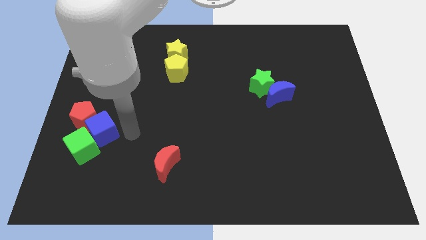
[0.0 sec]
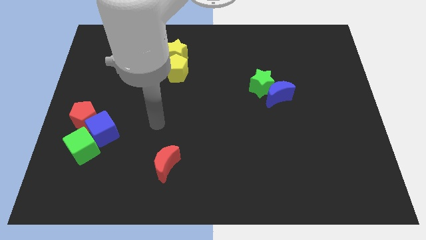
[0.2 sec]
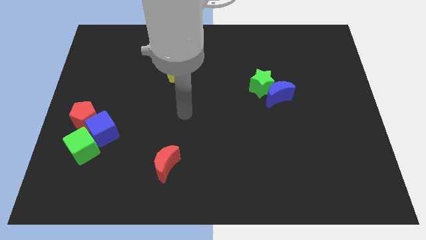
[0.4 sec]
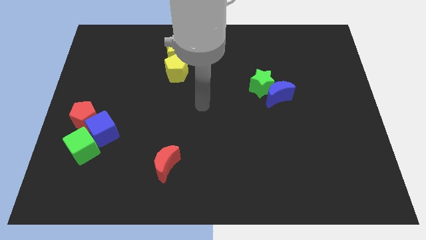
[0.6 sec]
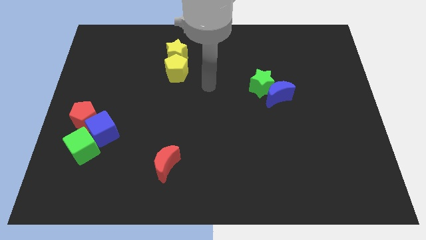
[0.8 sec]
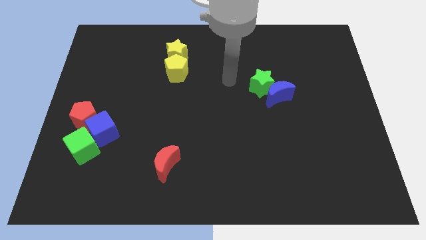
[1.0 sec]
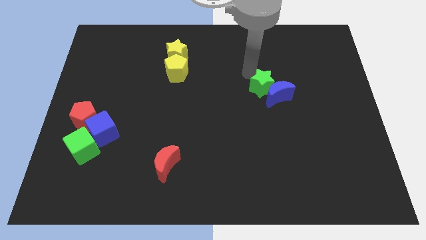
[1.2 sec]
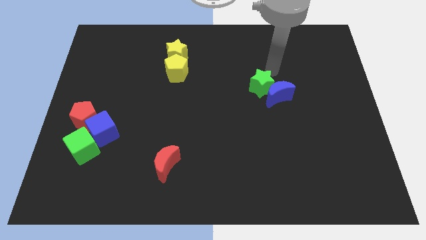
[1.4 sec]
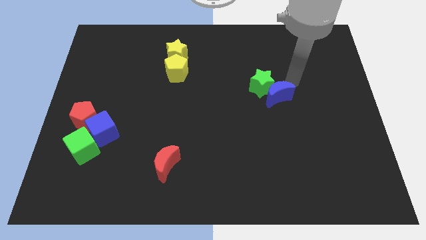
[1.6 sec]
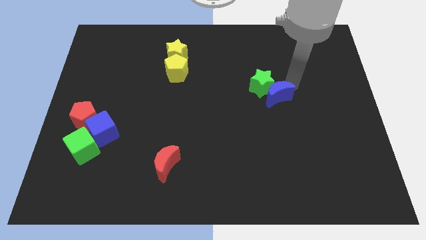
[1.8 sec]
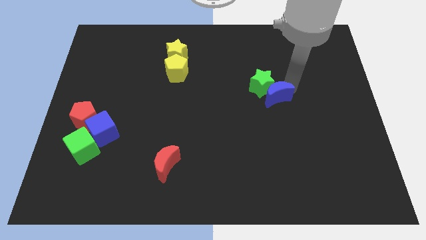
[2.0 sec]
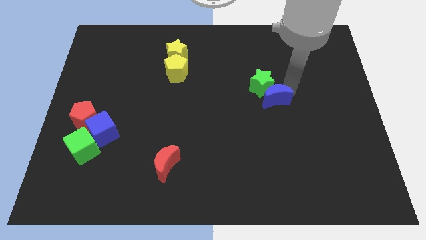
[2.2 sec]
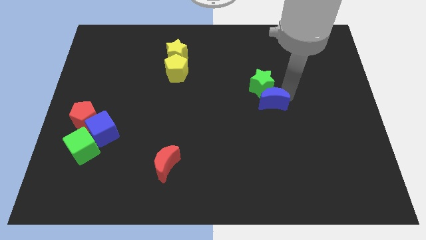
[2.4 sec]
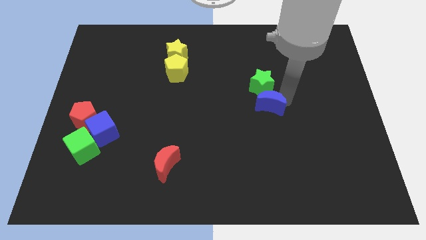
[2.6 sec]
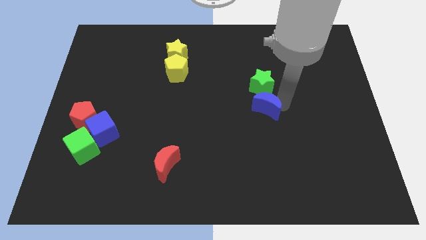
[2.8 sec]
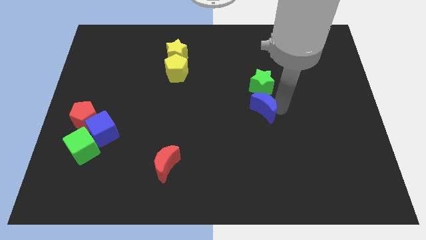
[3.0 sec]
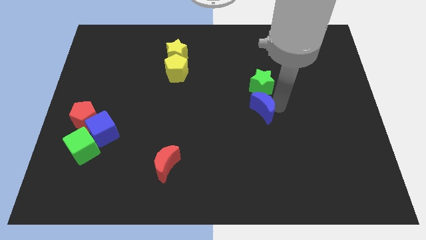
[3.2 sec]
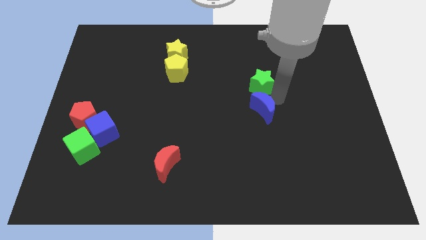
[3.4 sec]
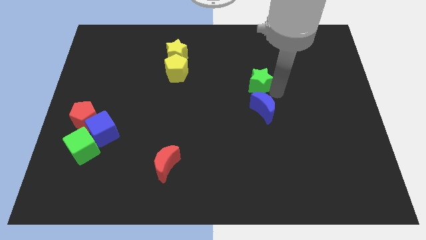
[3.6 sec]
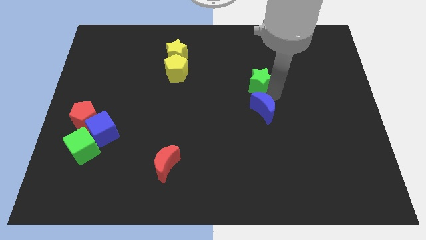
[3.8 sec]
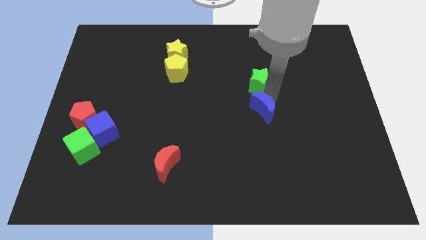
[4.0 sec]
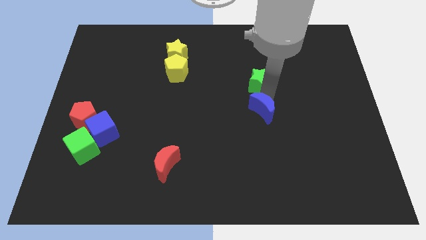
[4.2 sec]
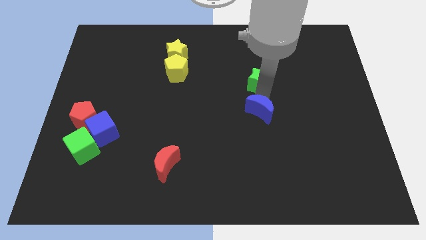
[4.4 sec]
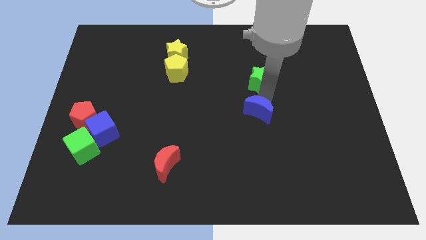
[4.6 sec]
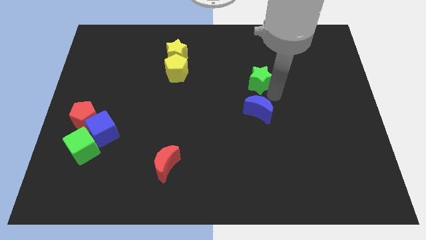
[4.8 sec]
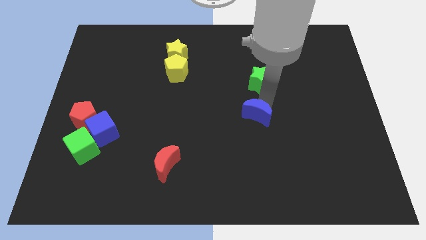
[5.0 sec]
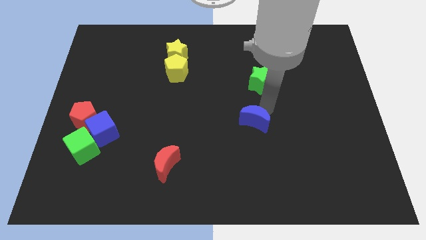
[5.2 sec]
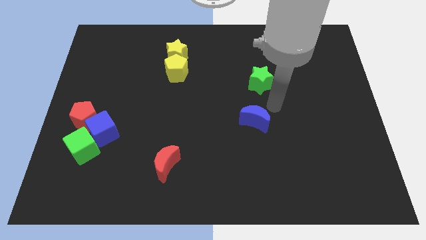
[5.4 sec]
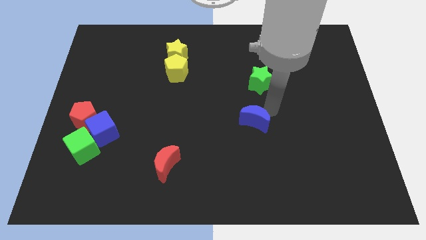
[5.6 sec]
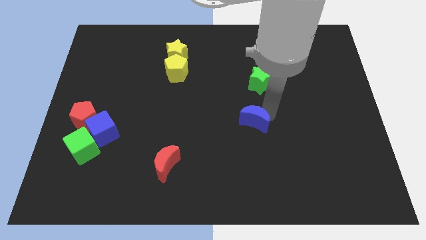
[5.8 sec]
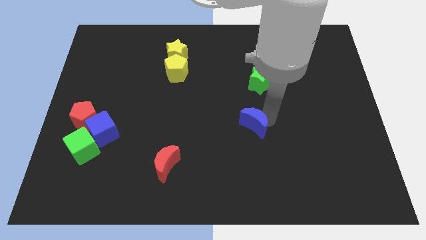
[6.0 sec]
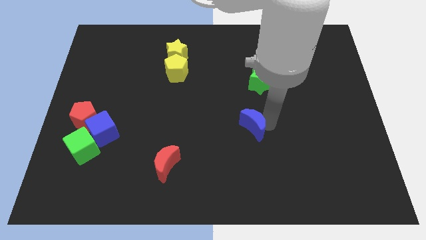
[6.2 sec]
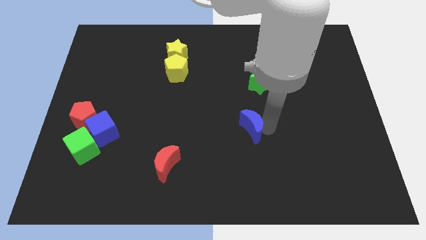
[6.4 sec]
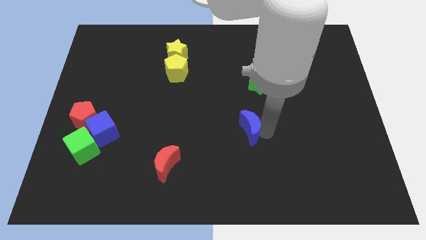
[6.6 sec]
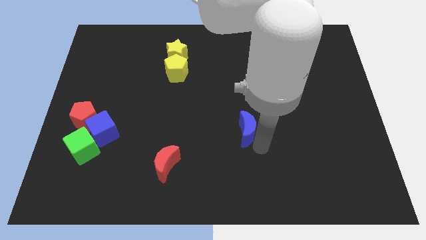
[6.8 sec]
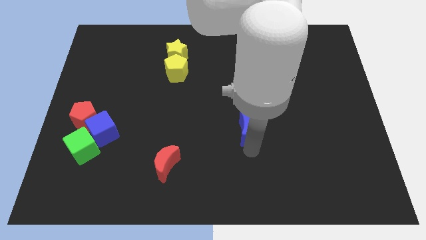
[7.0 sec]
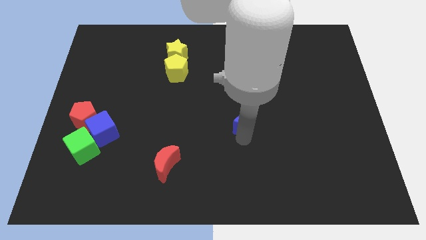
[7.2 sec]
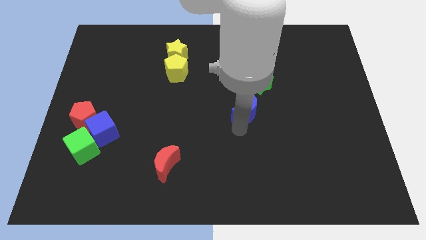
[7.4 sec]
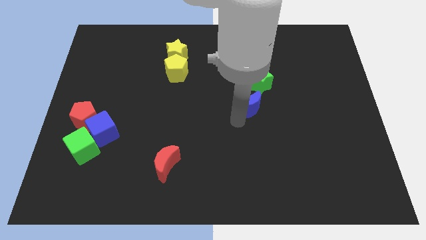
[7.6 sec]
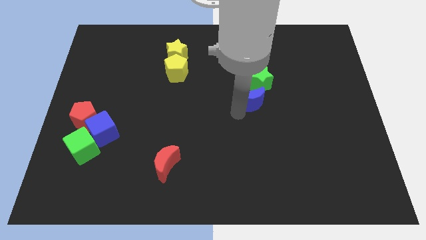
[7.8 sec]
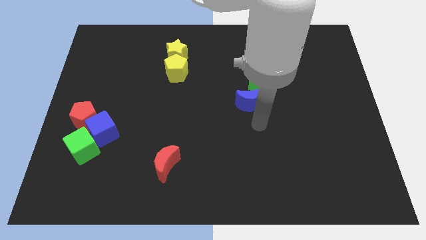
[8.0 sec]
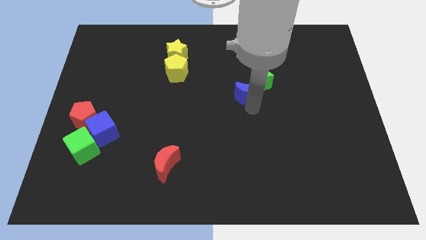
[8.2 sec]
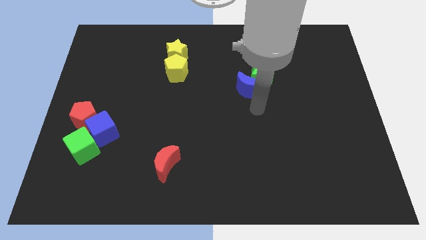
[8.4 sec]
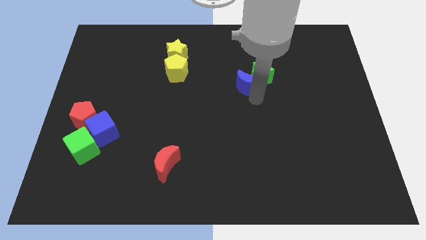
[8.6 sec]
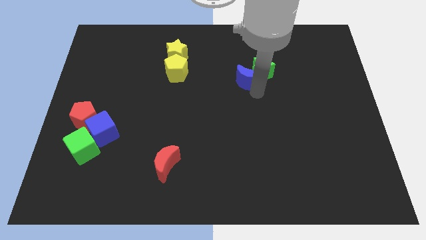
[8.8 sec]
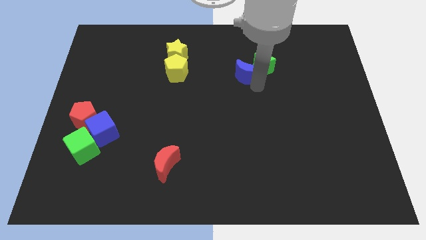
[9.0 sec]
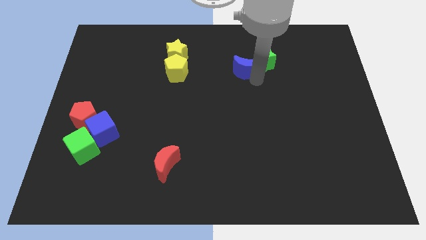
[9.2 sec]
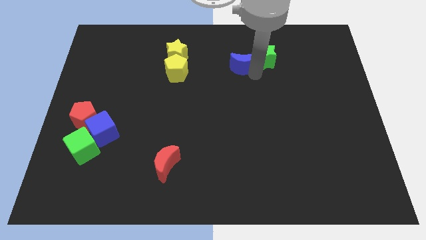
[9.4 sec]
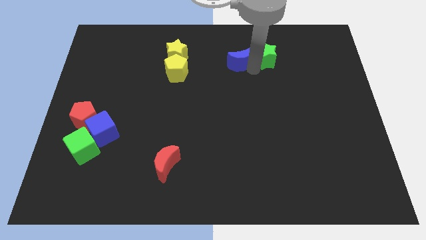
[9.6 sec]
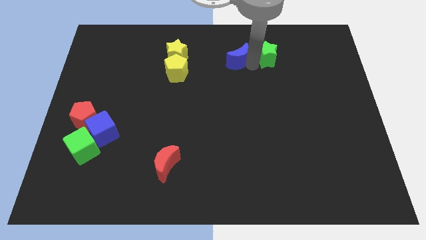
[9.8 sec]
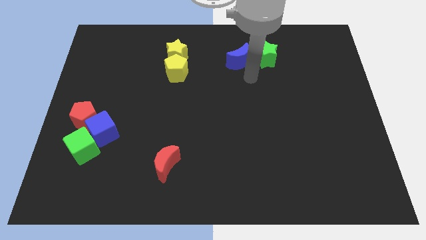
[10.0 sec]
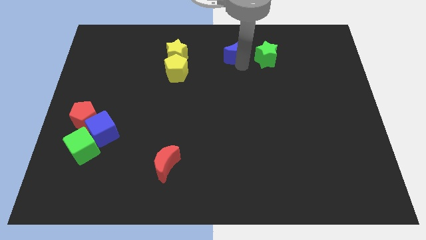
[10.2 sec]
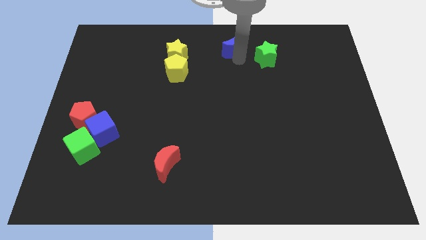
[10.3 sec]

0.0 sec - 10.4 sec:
move the blue moon to the towards your base

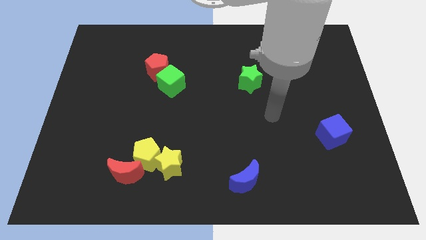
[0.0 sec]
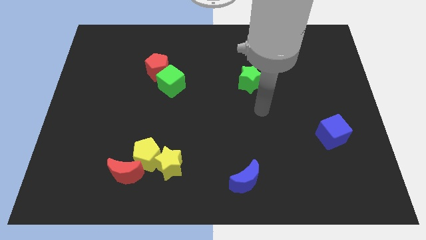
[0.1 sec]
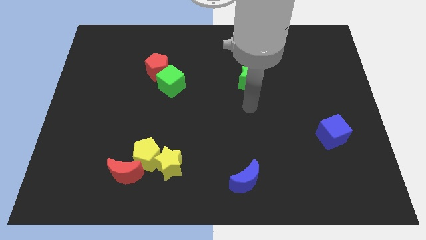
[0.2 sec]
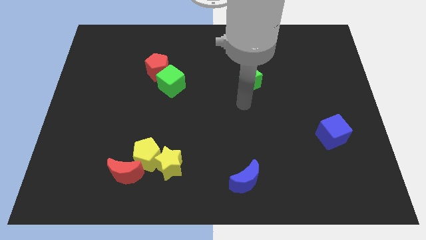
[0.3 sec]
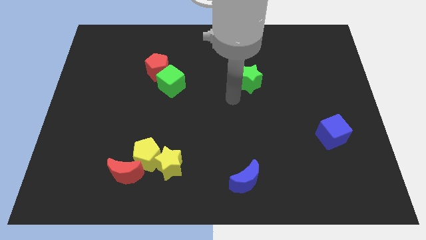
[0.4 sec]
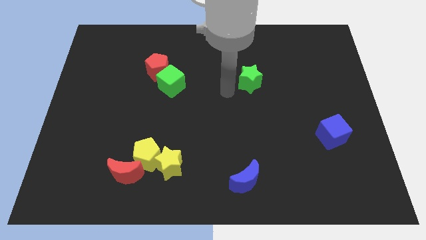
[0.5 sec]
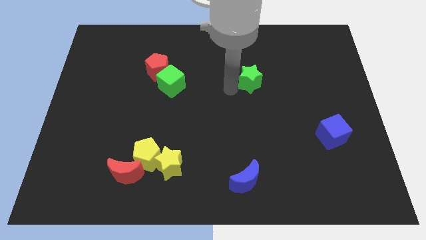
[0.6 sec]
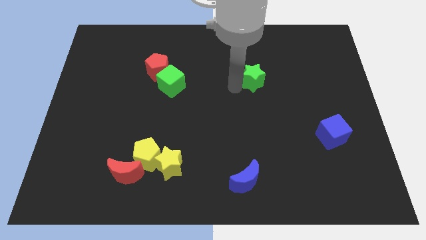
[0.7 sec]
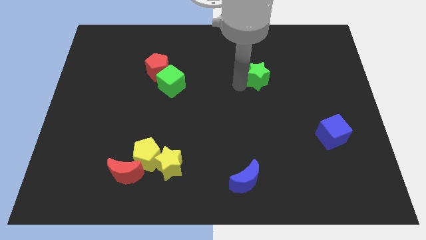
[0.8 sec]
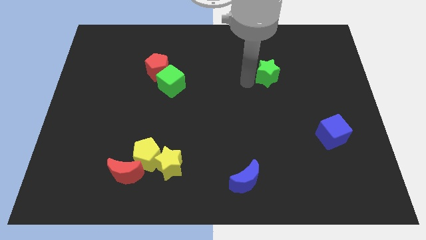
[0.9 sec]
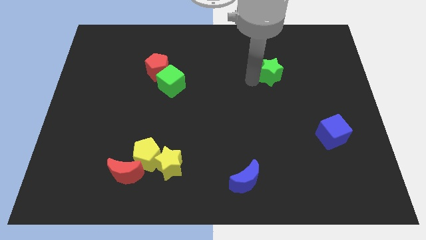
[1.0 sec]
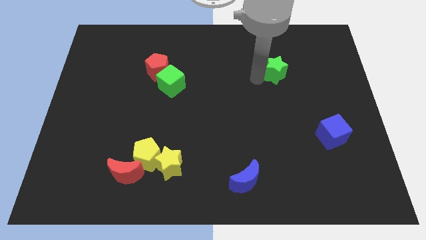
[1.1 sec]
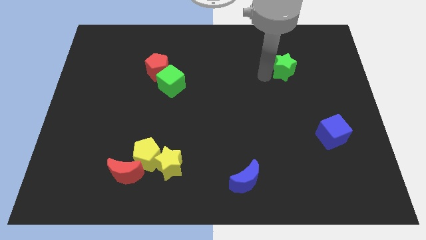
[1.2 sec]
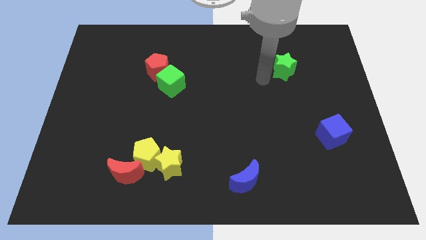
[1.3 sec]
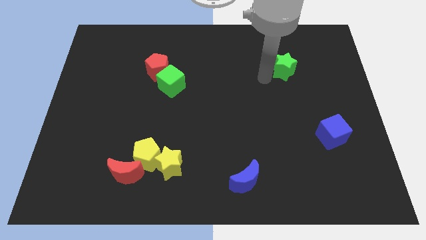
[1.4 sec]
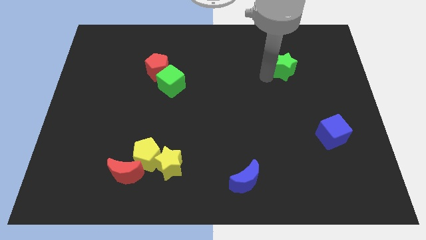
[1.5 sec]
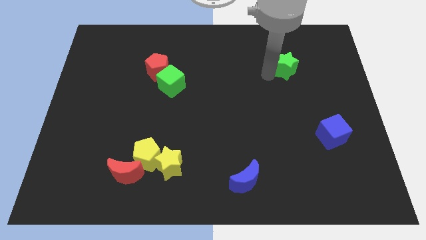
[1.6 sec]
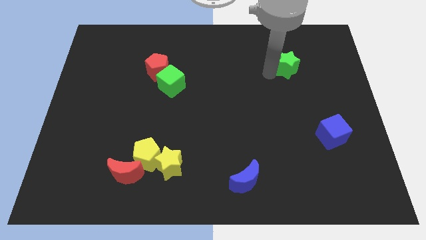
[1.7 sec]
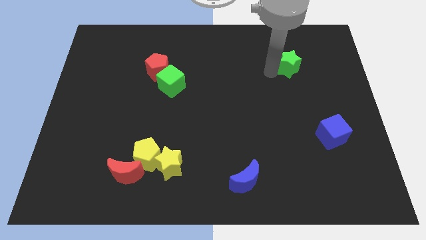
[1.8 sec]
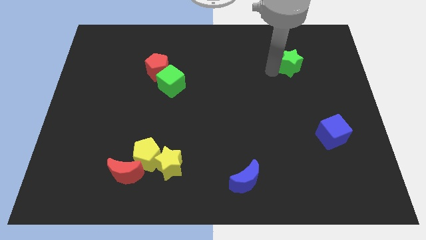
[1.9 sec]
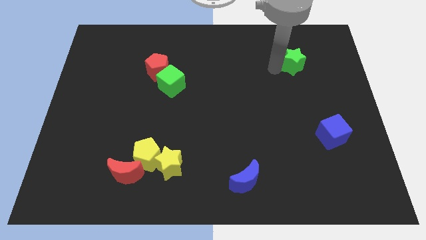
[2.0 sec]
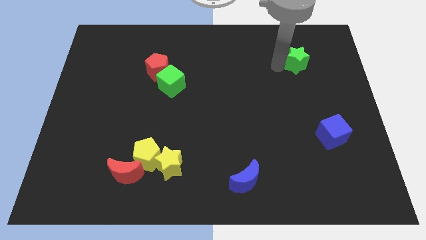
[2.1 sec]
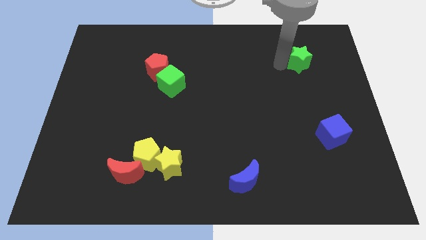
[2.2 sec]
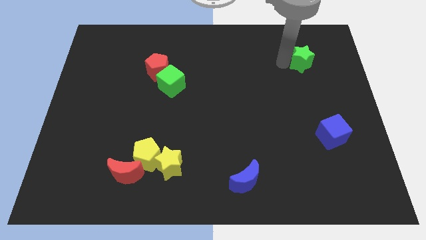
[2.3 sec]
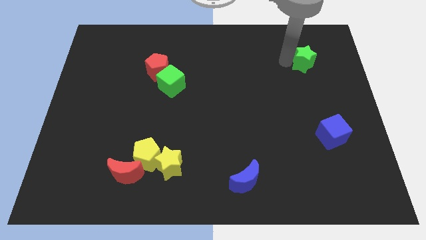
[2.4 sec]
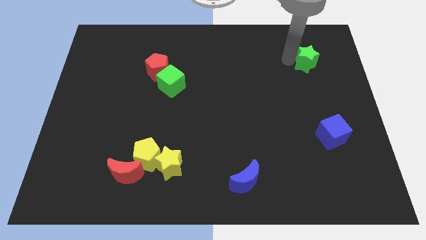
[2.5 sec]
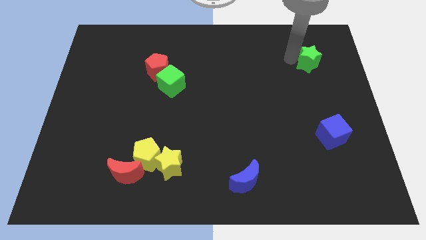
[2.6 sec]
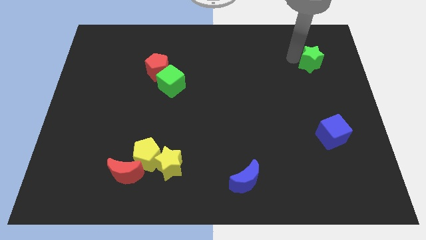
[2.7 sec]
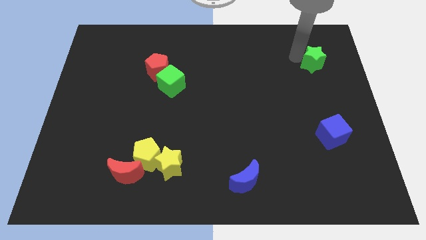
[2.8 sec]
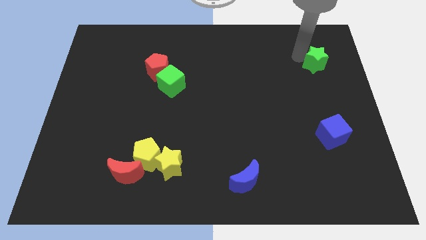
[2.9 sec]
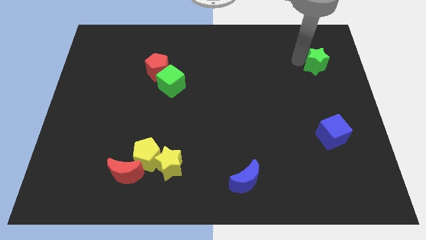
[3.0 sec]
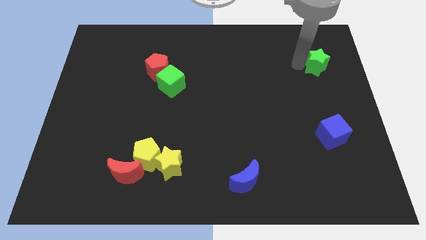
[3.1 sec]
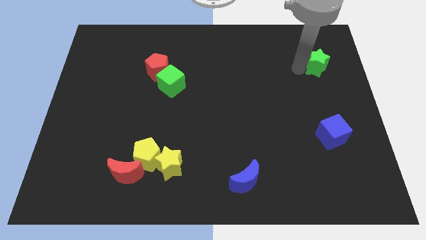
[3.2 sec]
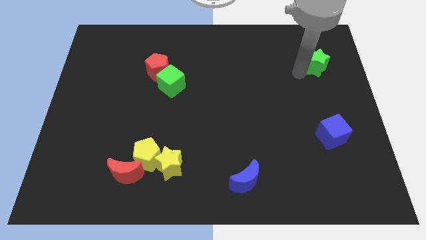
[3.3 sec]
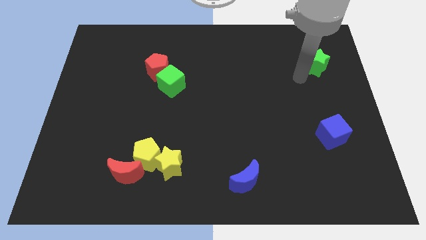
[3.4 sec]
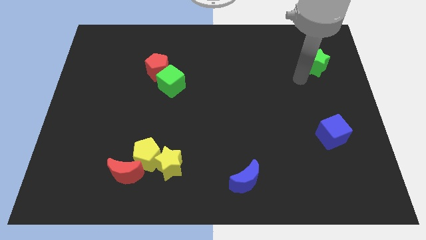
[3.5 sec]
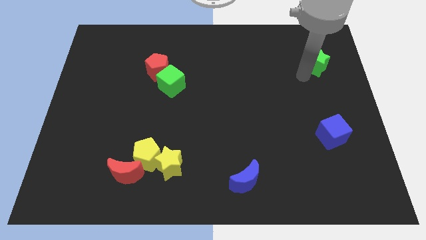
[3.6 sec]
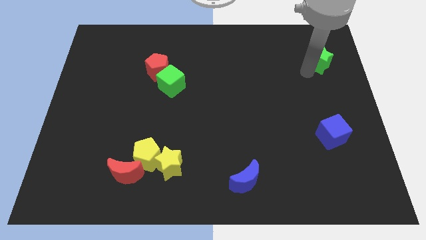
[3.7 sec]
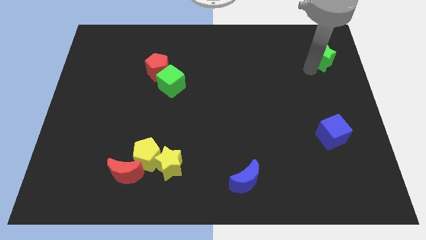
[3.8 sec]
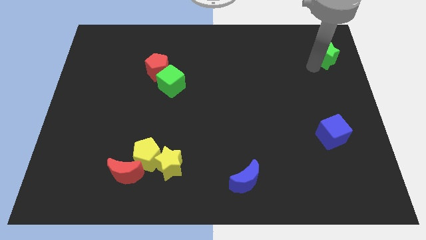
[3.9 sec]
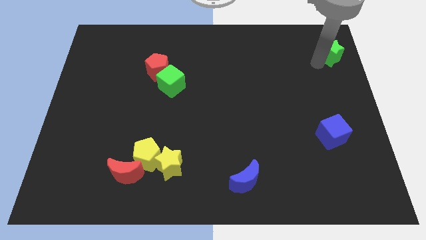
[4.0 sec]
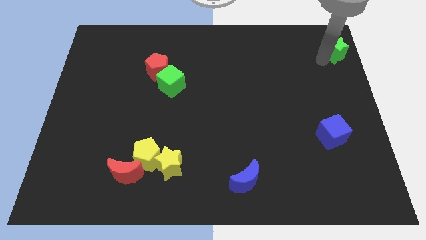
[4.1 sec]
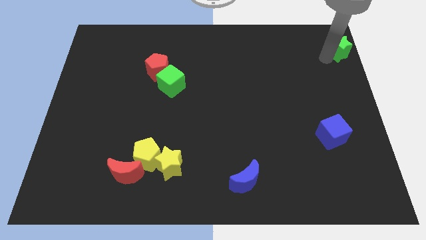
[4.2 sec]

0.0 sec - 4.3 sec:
push the green star to the top right of the board
